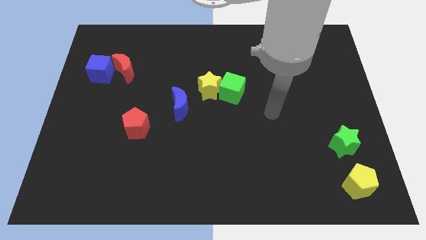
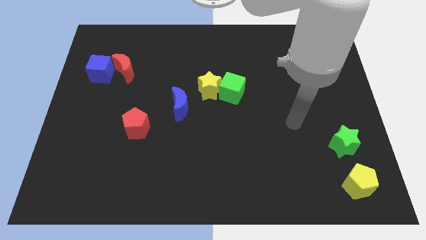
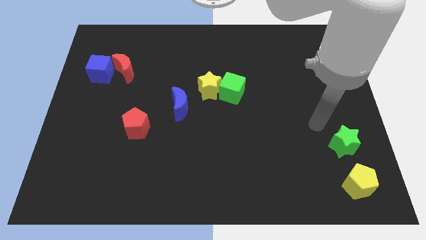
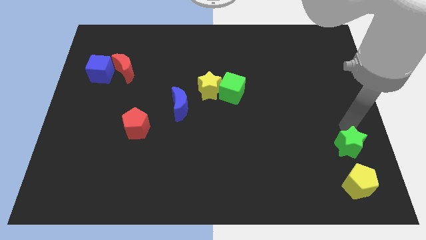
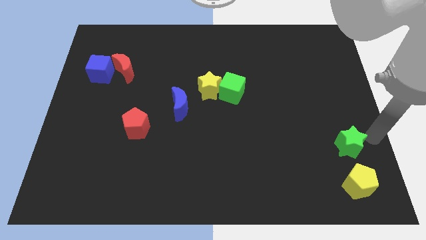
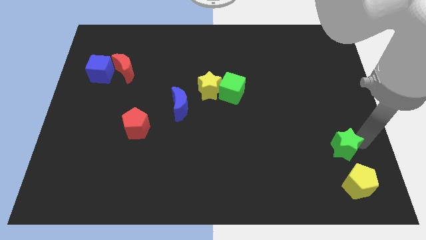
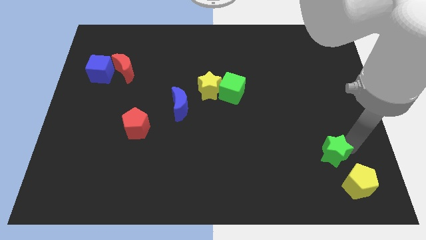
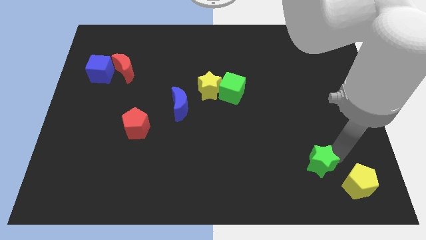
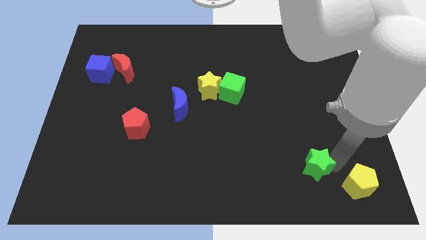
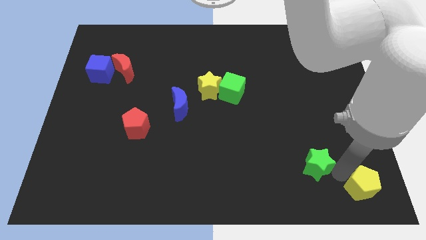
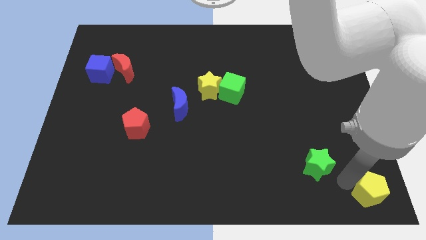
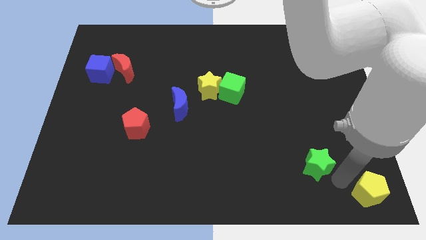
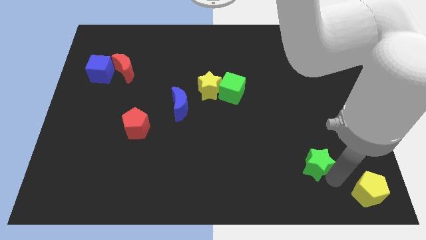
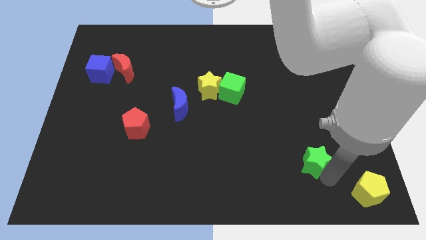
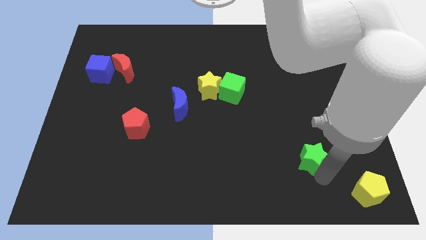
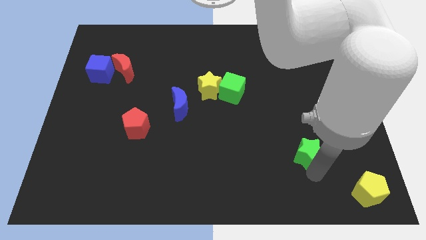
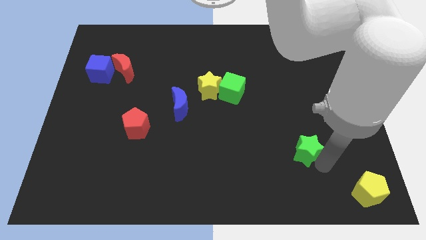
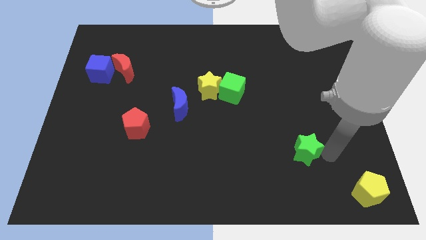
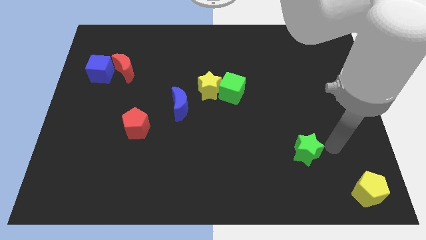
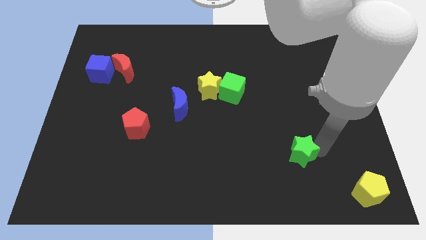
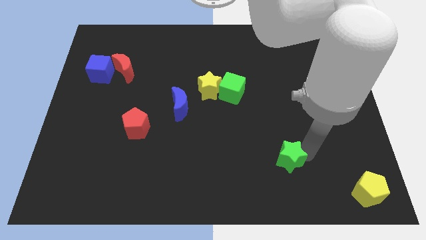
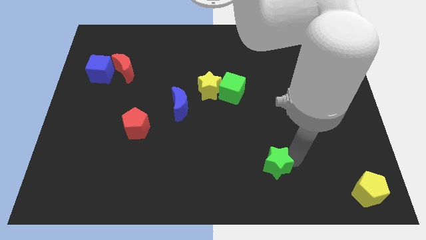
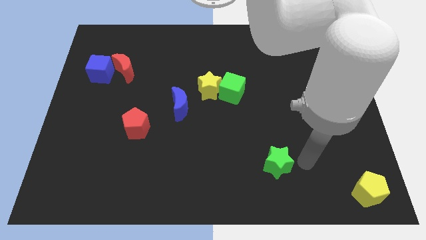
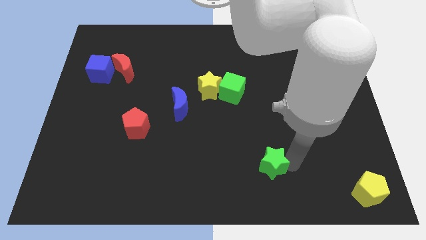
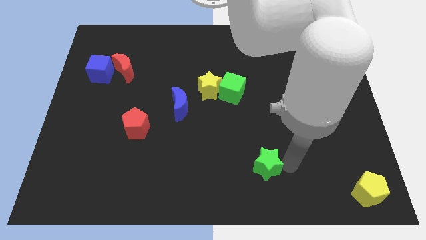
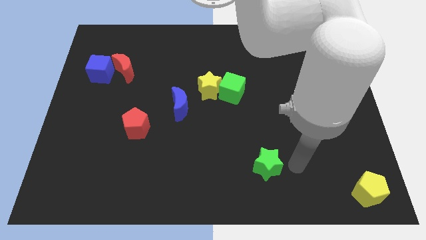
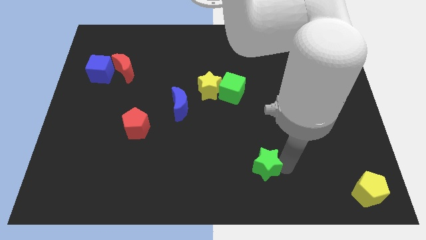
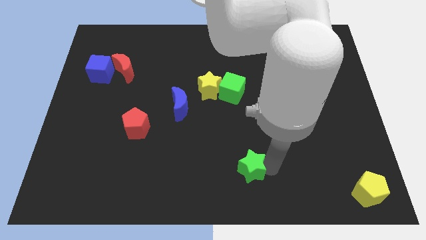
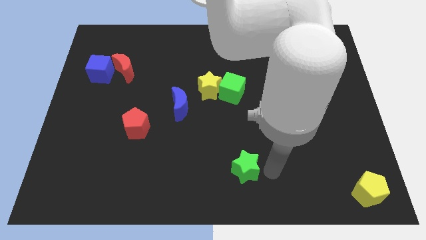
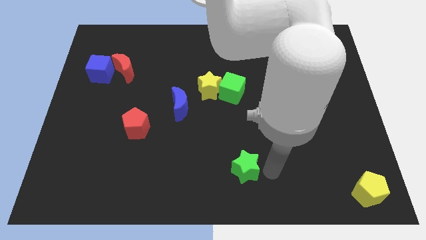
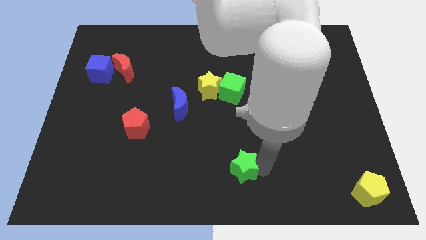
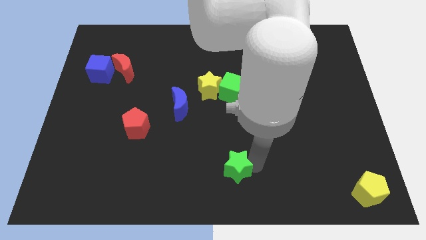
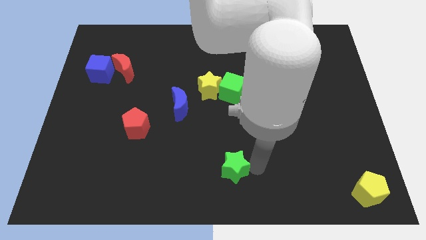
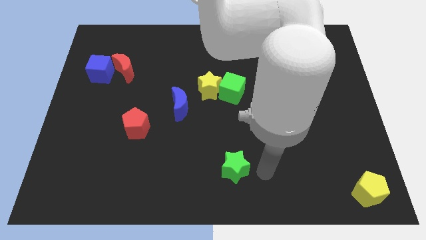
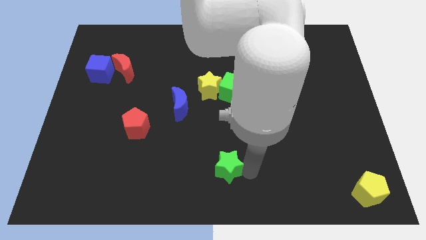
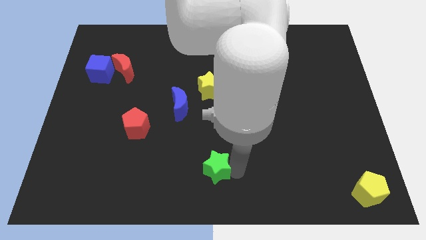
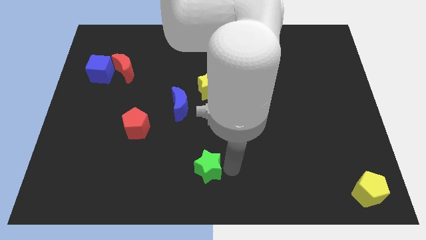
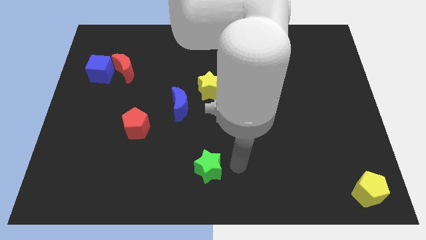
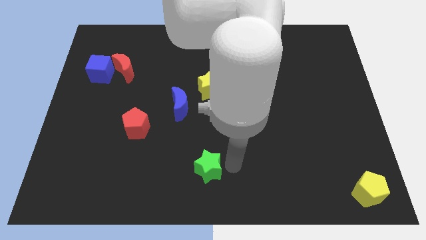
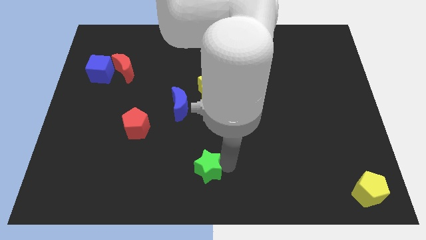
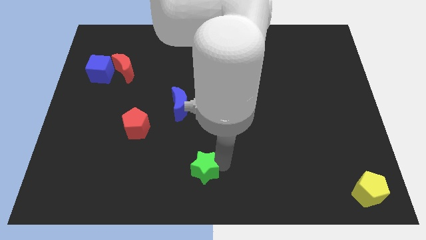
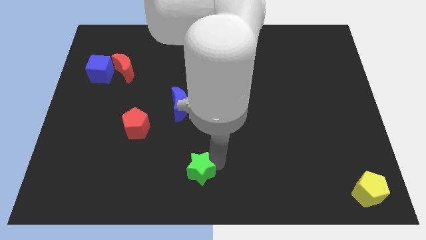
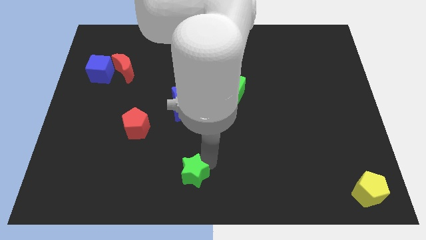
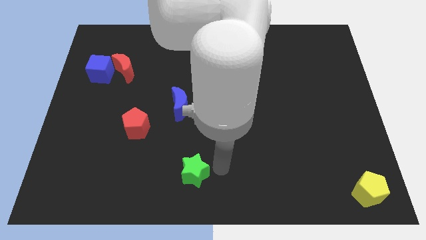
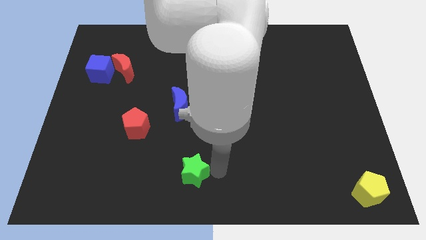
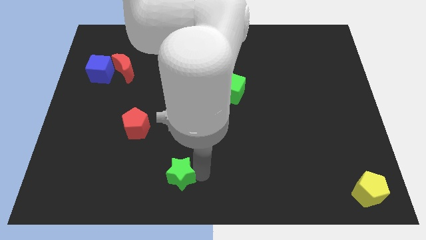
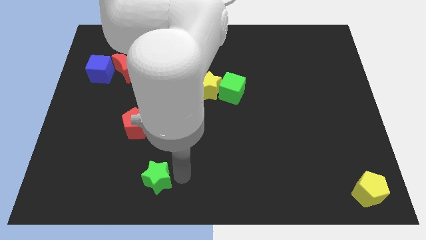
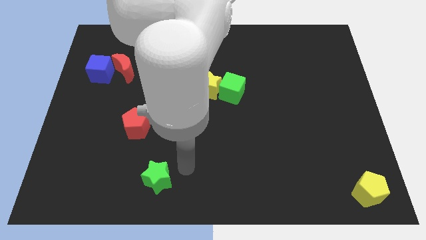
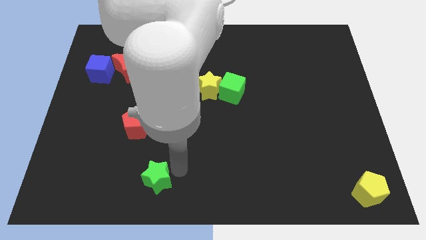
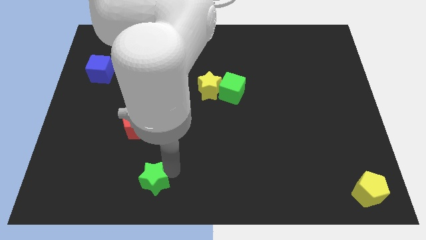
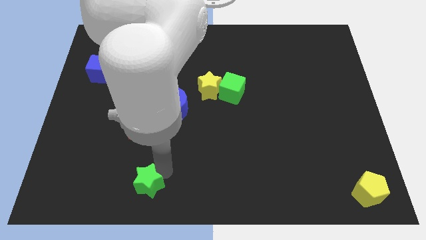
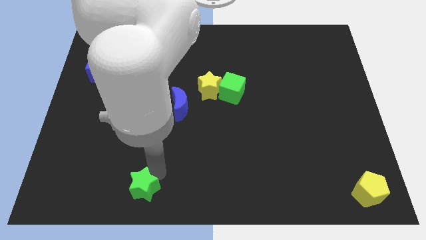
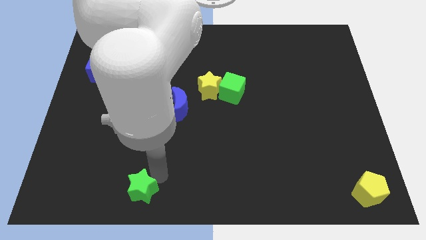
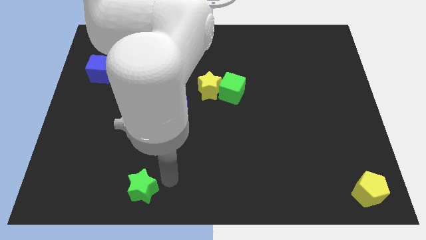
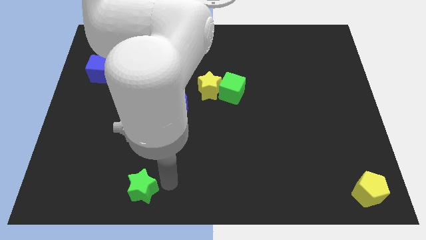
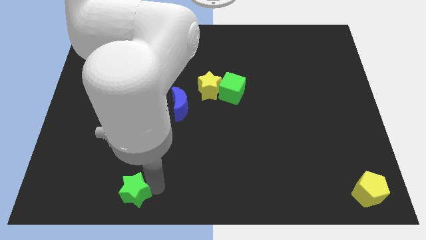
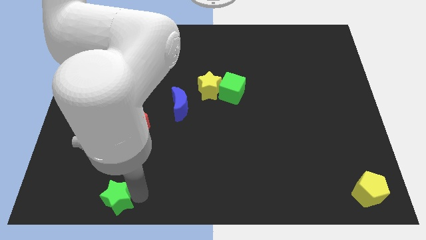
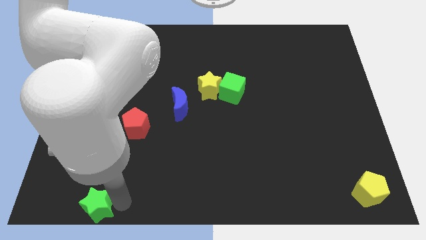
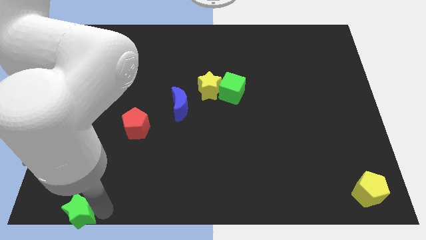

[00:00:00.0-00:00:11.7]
move the green star to the lower left corner
